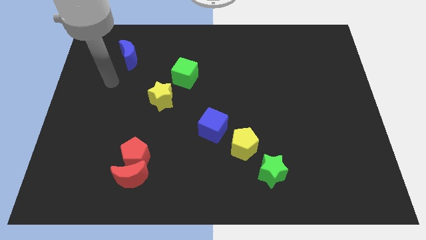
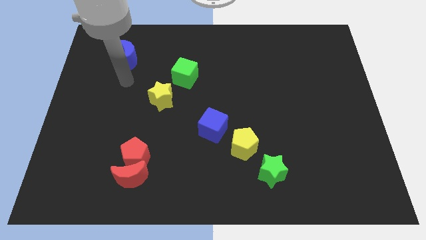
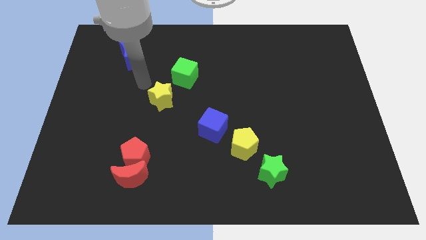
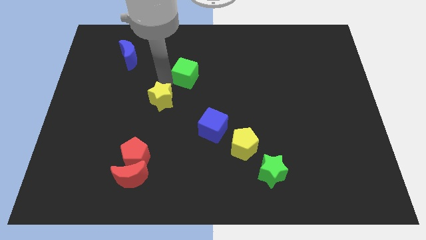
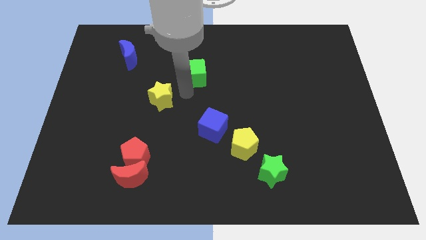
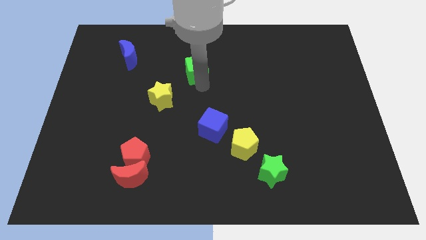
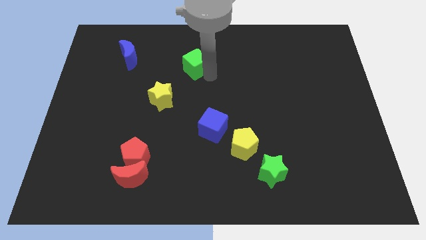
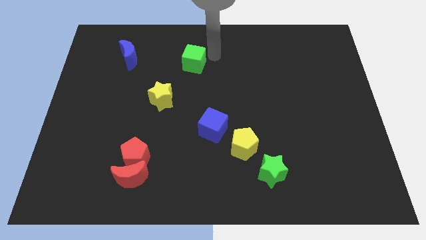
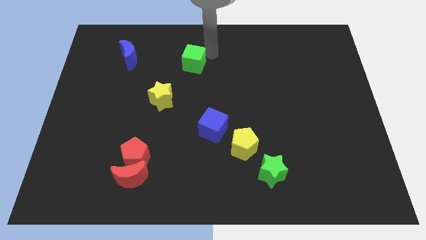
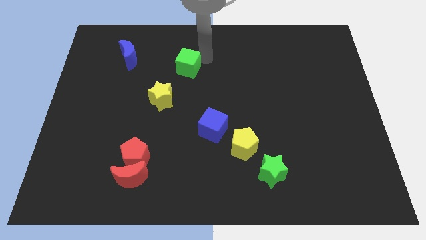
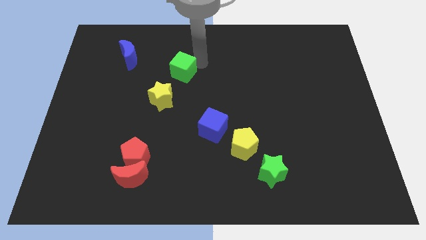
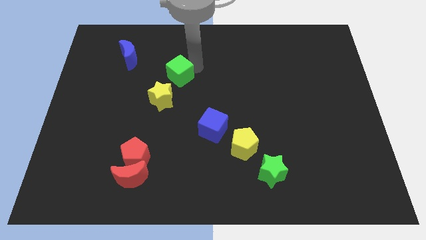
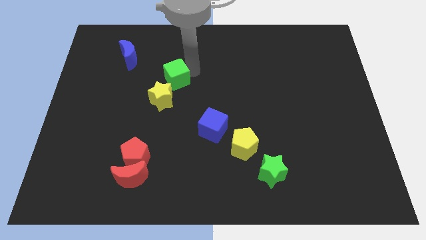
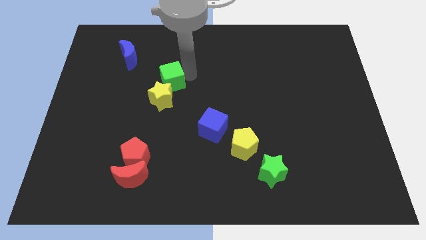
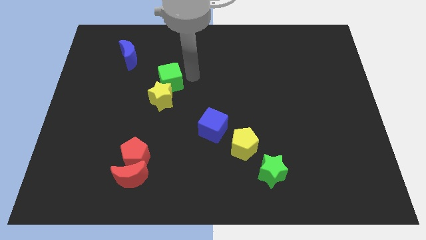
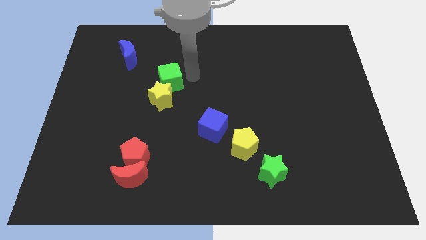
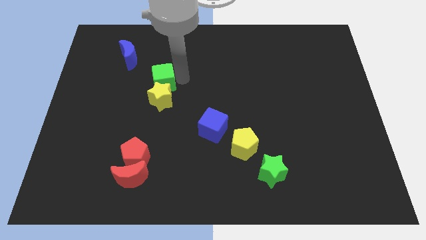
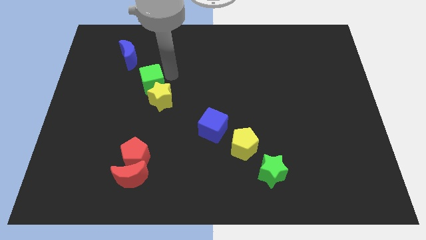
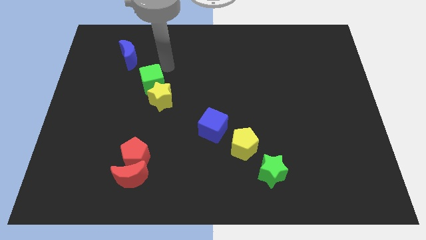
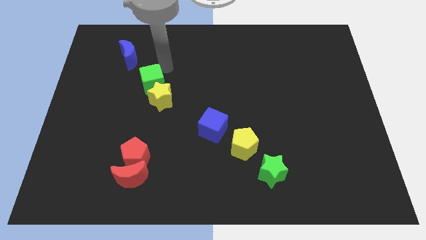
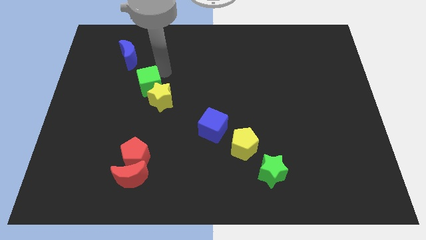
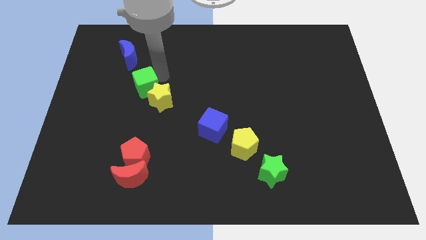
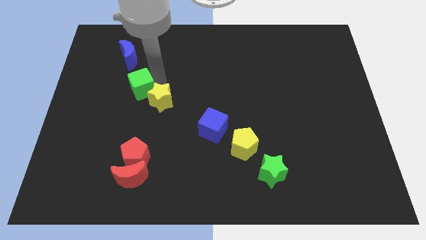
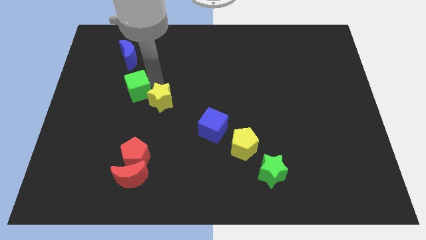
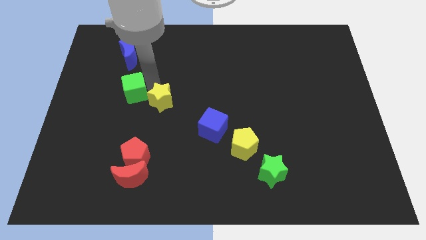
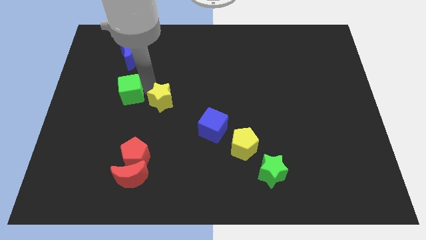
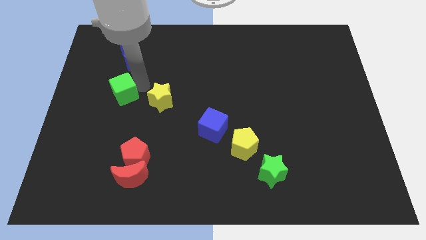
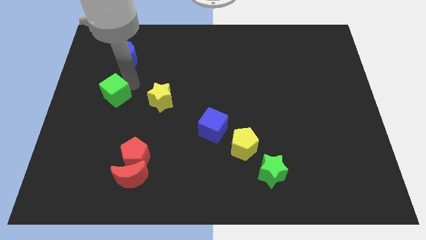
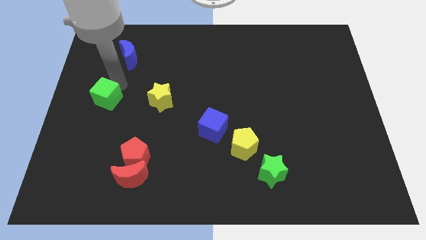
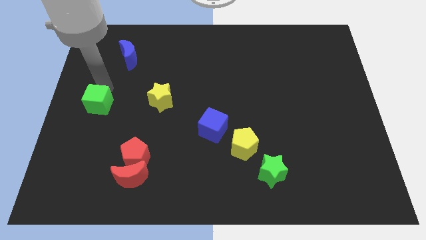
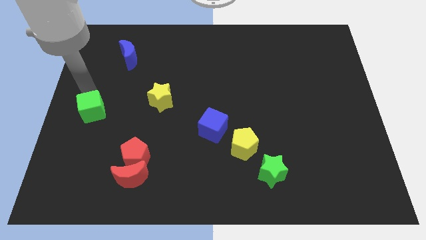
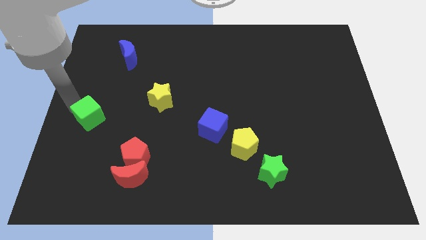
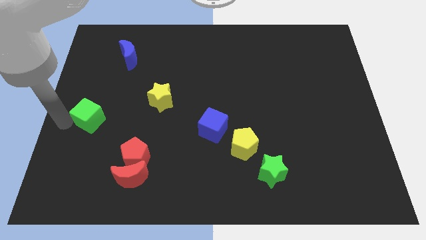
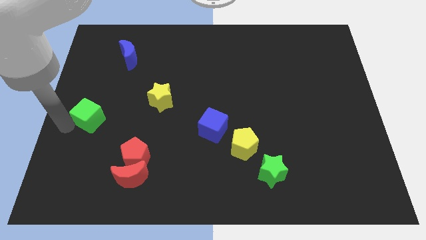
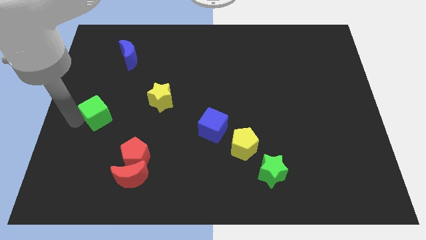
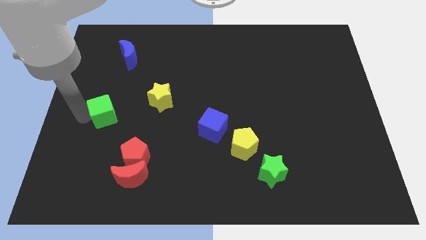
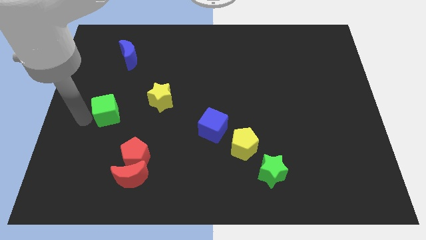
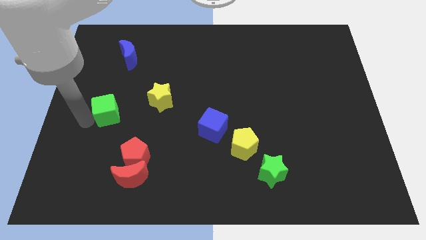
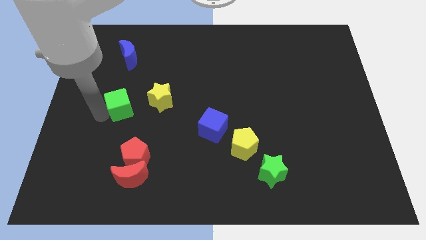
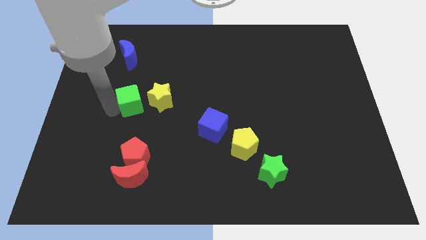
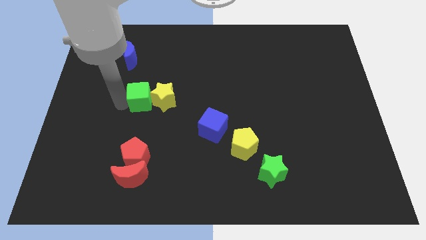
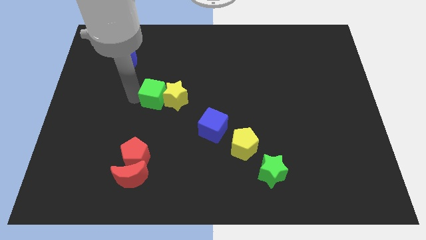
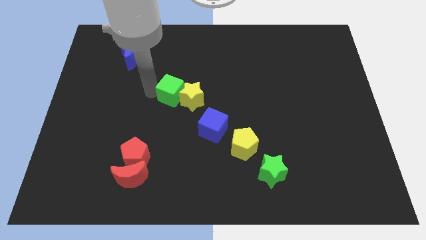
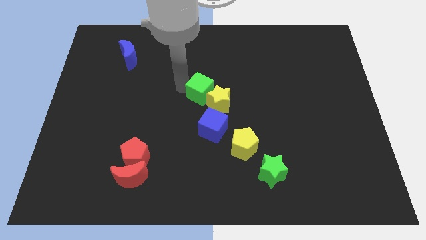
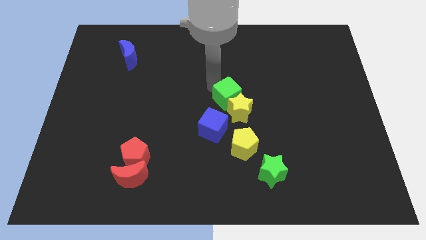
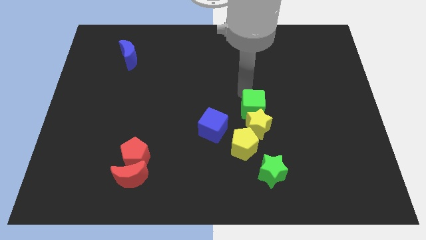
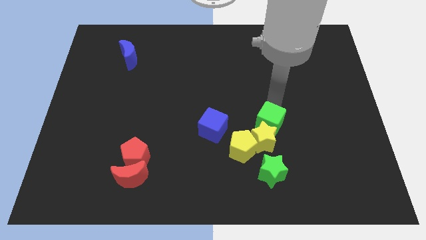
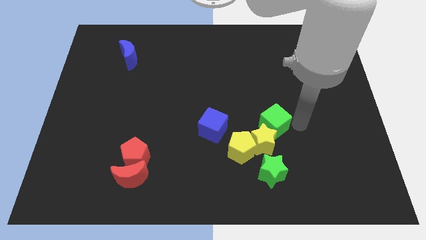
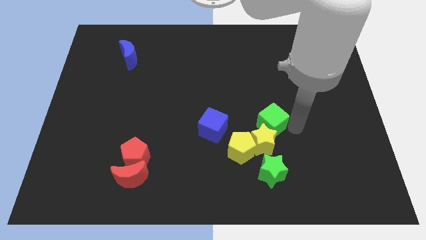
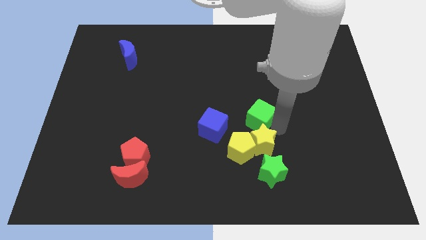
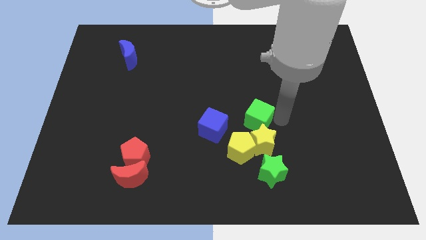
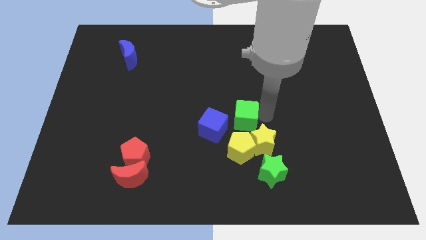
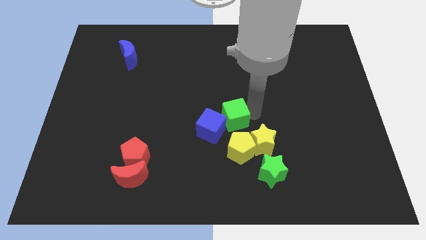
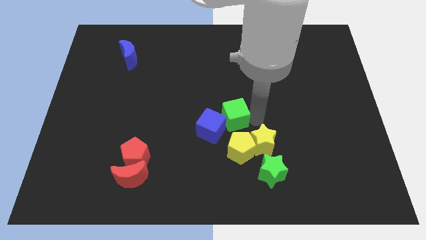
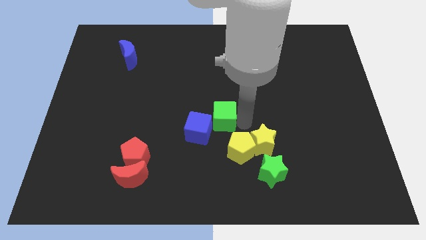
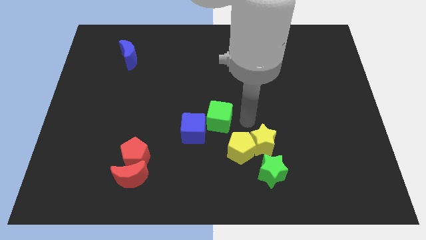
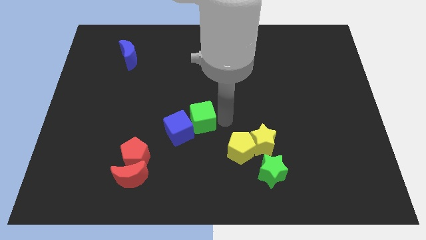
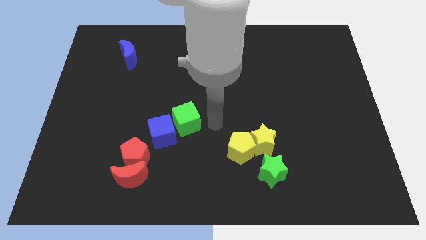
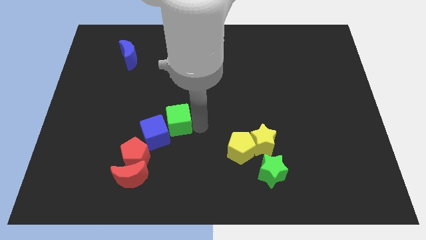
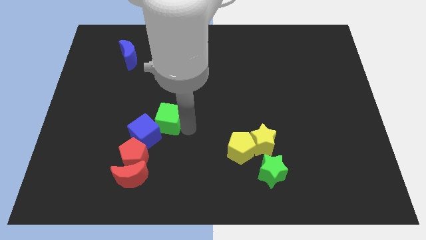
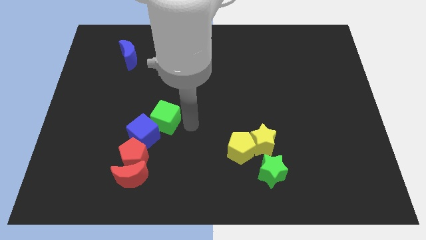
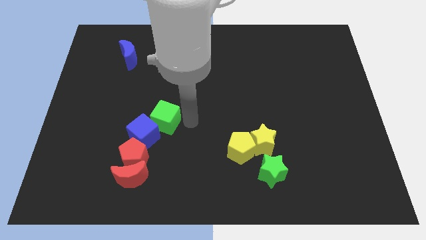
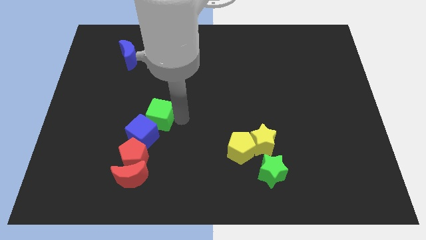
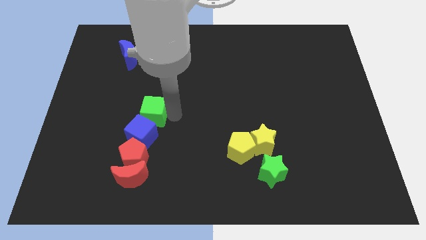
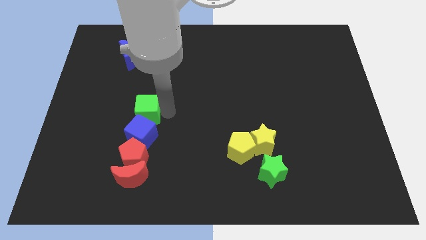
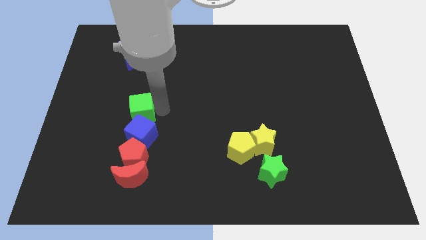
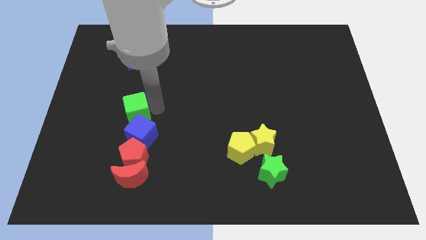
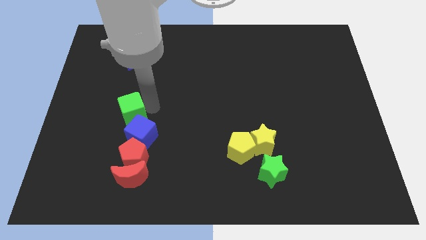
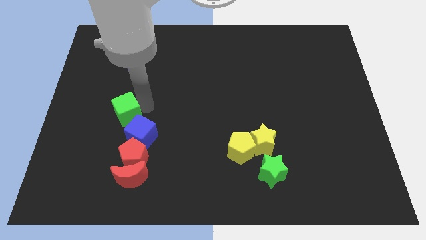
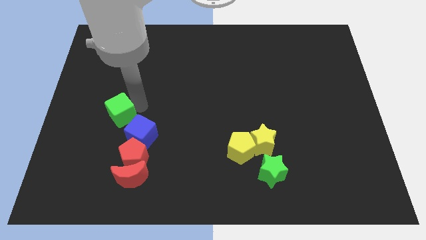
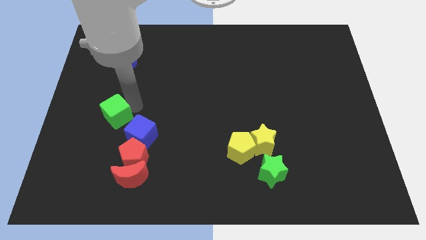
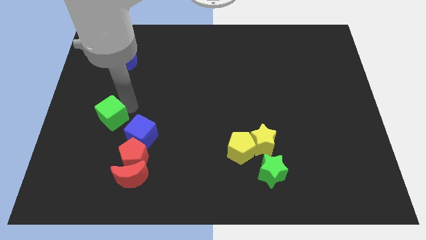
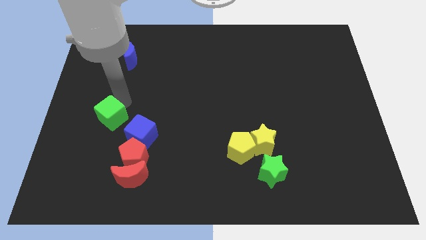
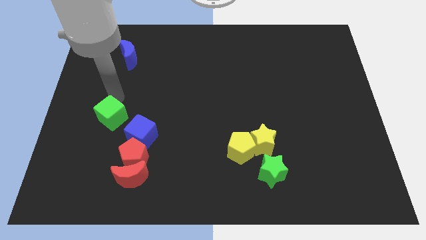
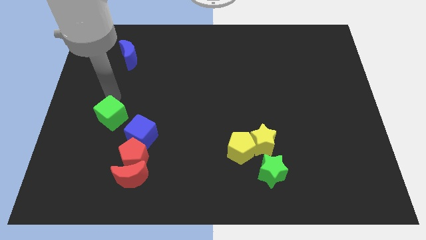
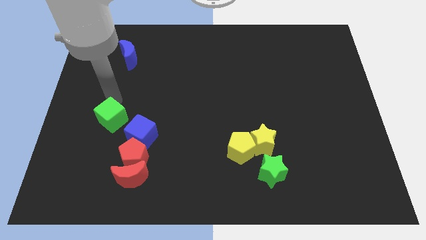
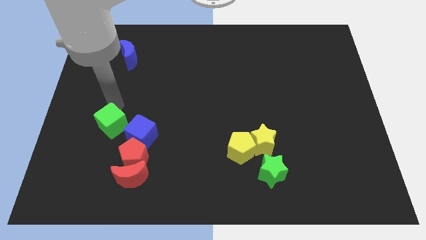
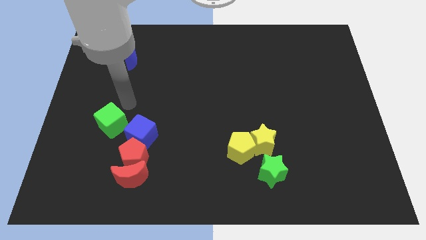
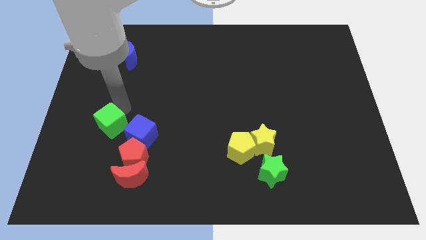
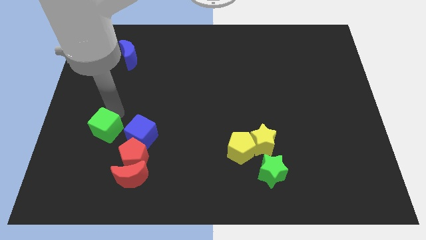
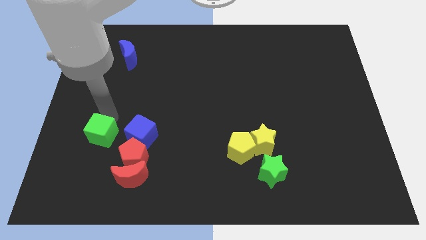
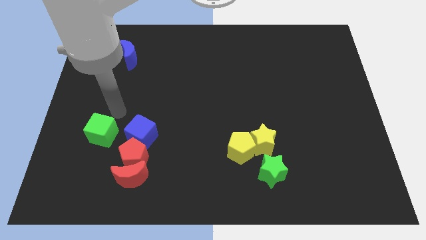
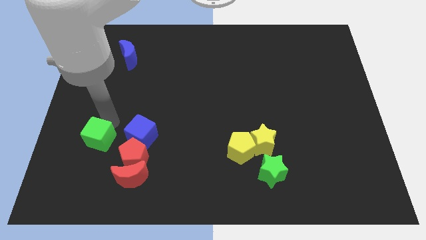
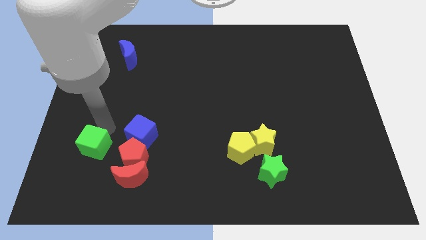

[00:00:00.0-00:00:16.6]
push the green cube just left of the red pentagon
